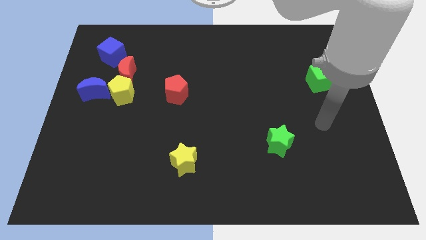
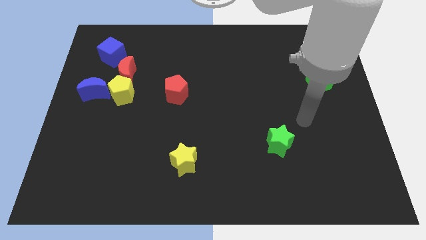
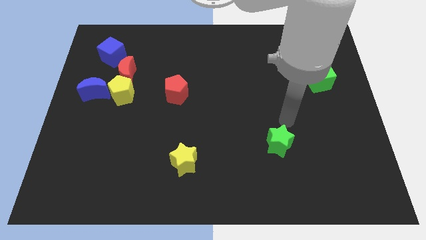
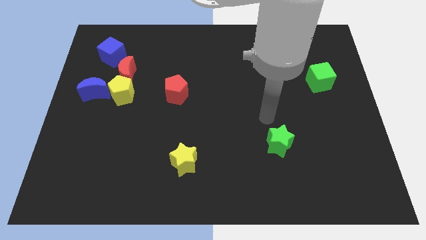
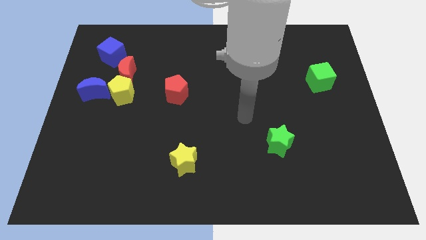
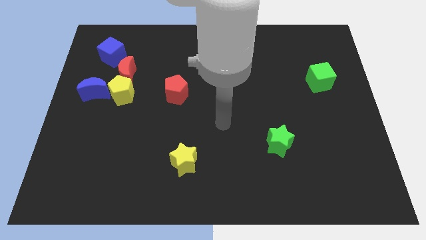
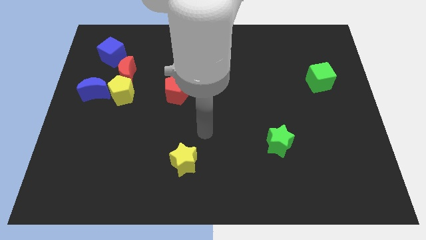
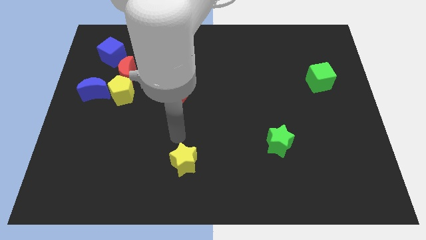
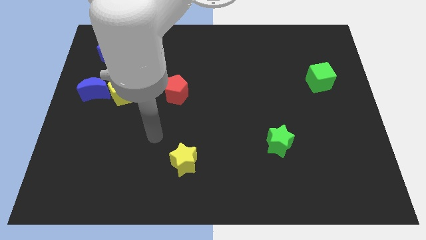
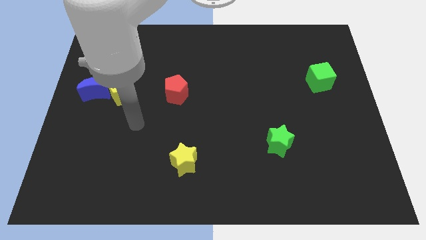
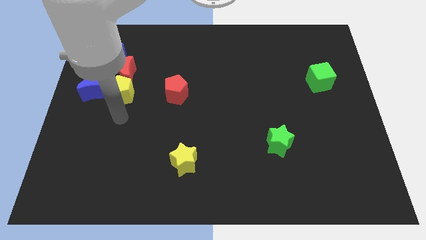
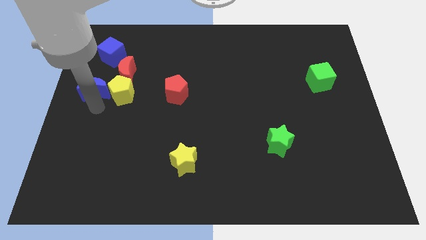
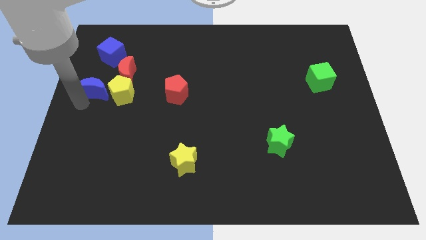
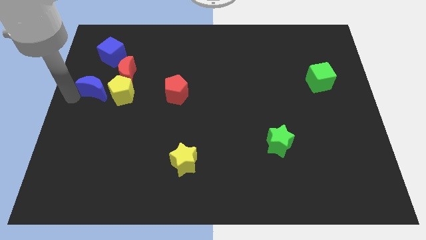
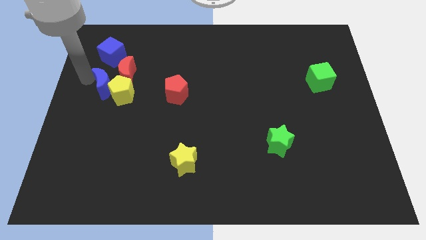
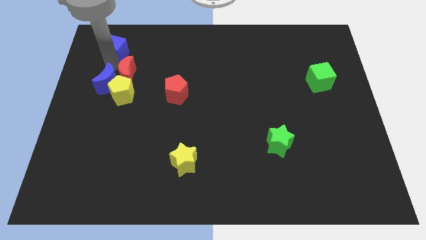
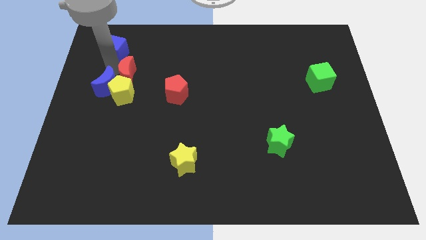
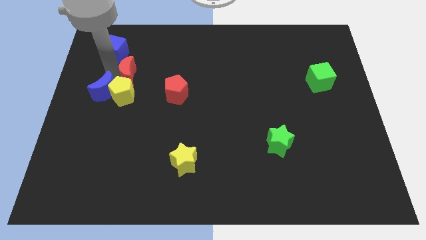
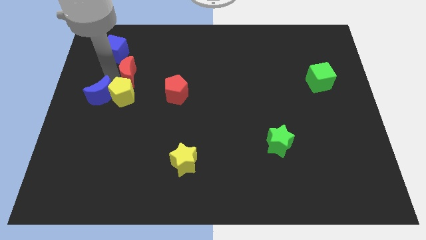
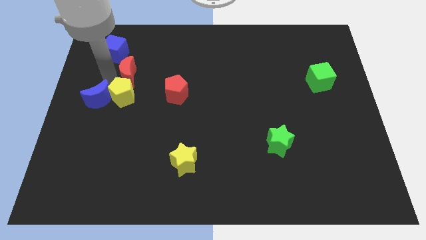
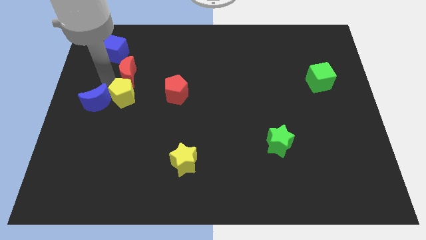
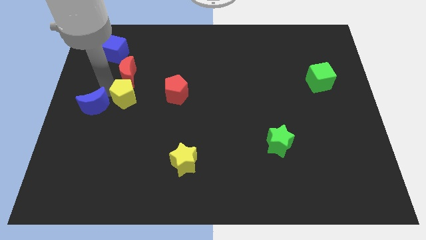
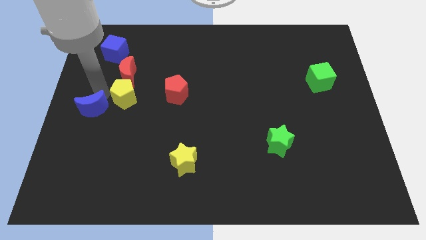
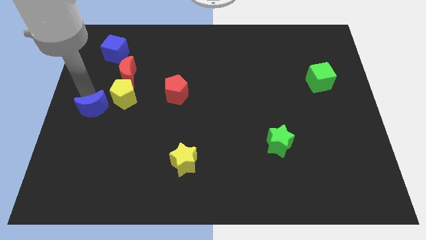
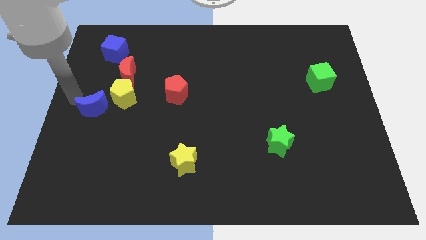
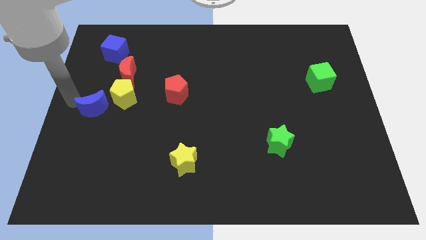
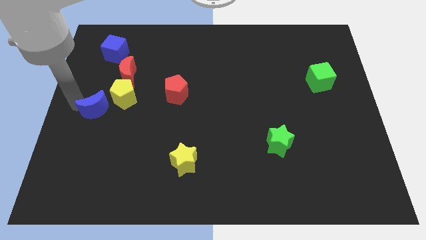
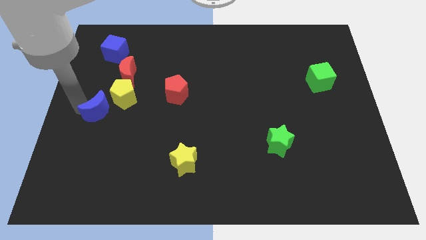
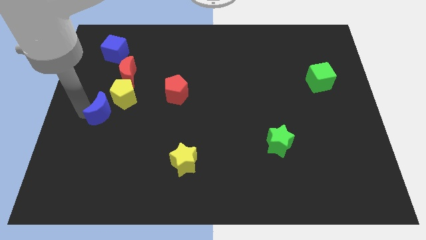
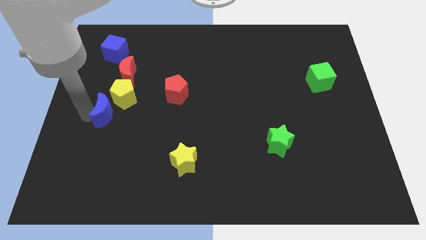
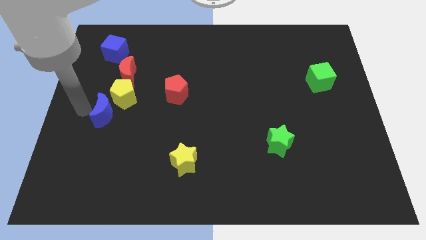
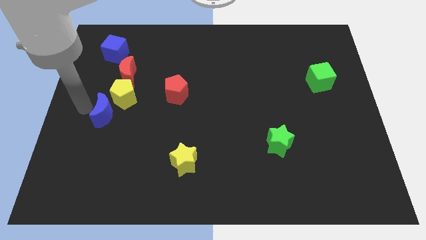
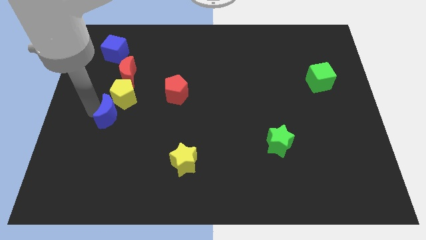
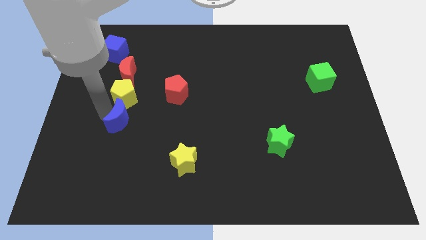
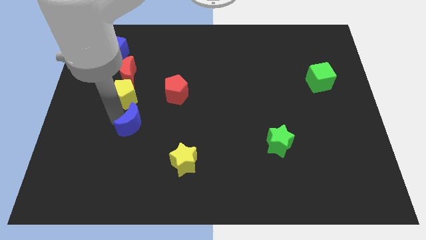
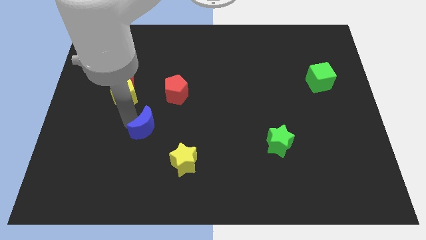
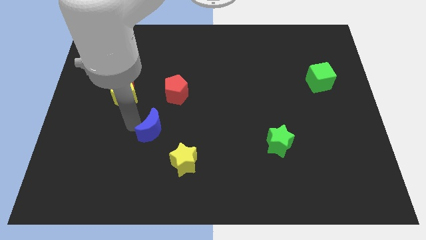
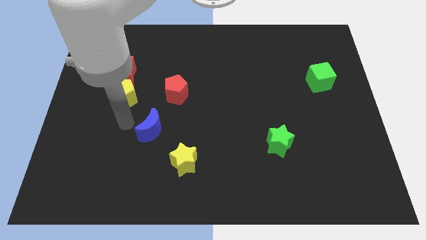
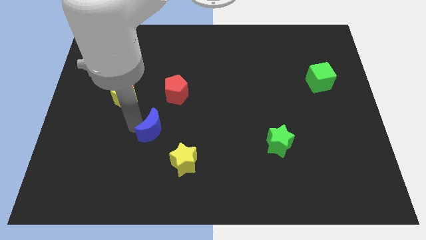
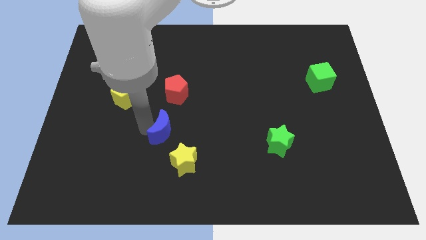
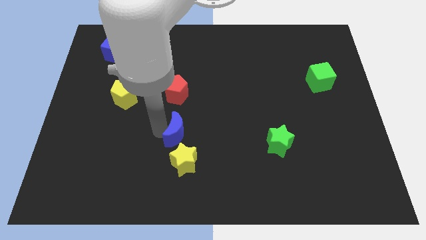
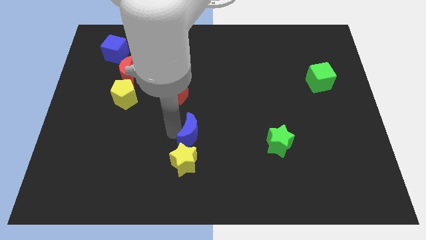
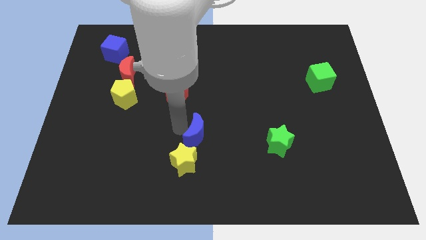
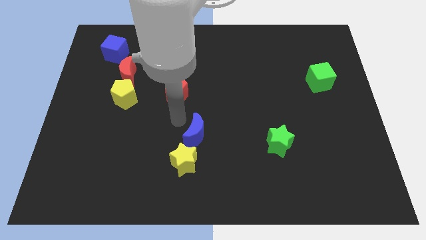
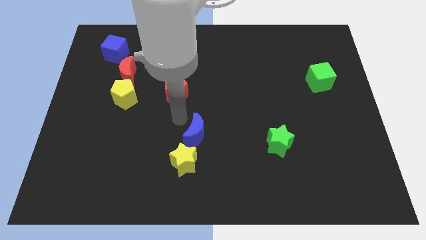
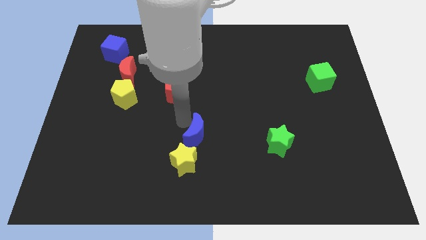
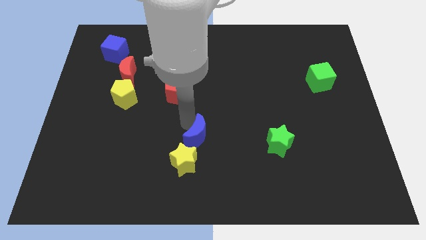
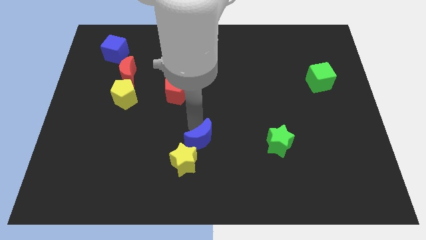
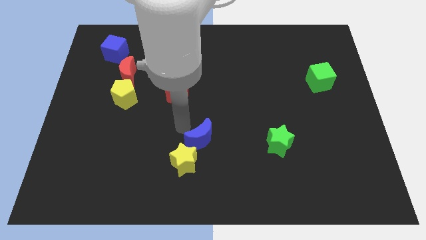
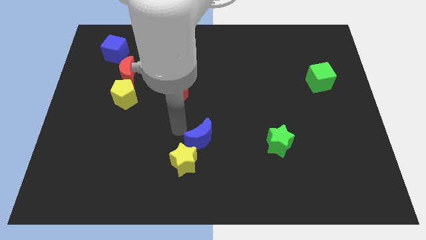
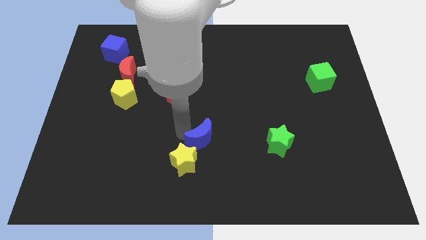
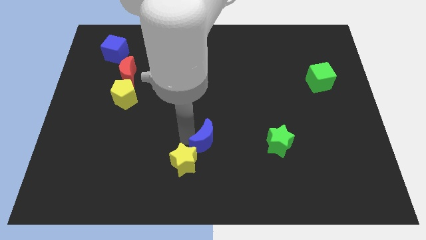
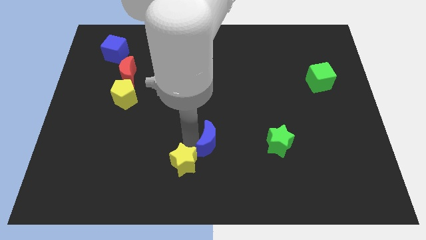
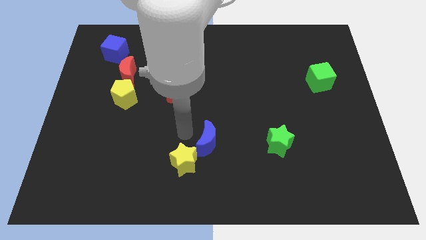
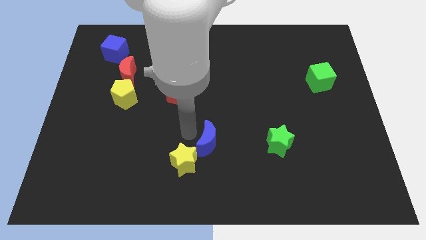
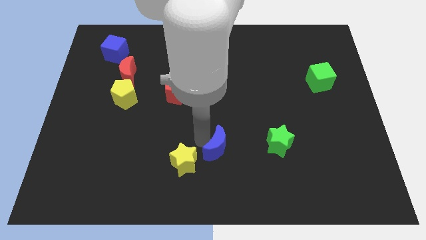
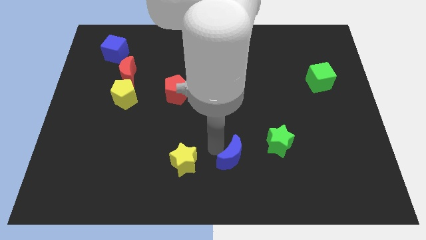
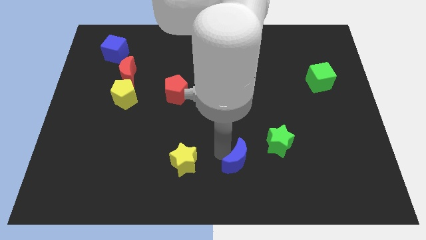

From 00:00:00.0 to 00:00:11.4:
push the blue moon to the bottom left of the green star

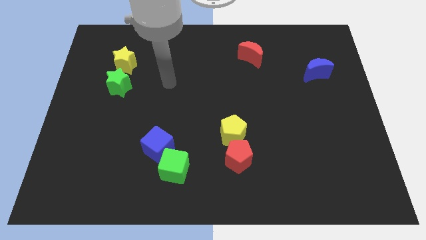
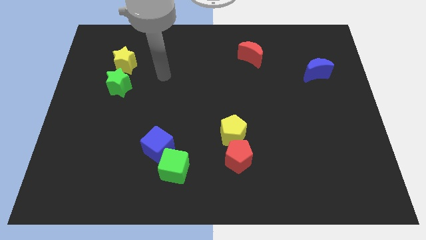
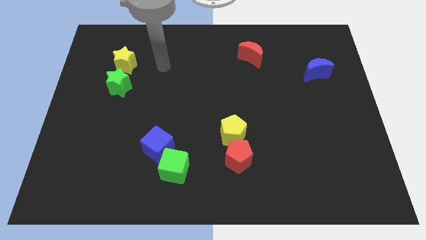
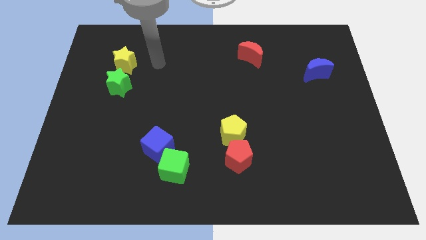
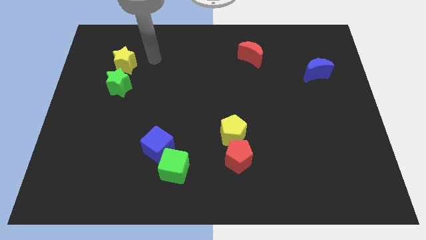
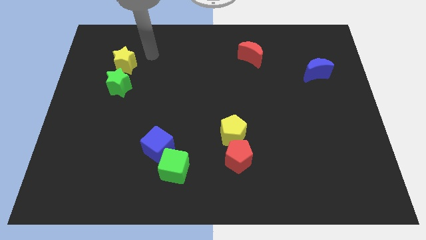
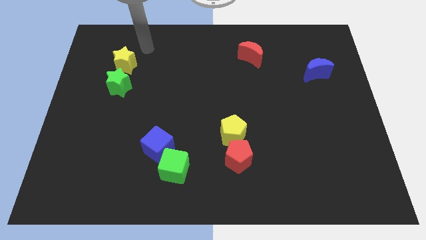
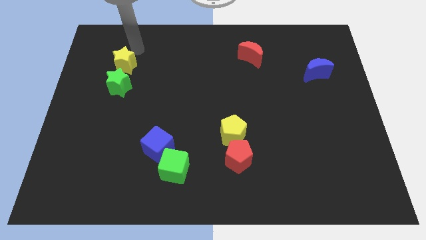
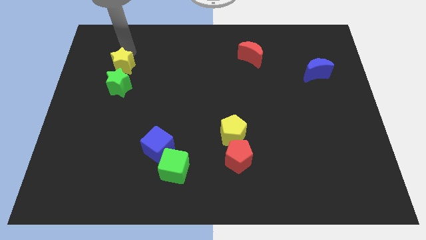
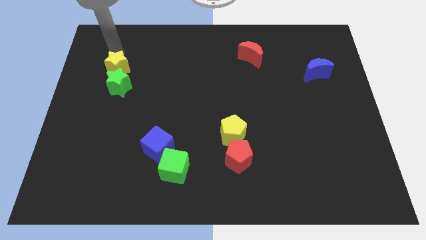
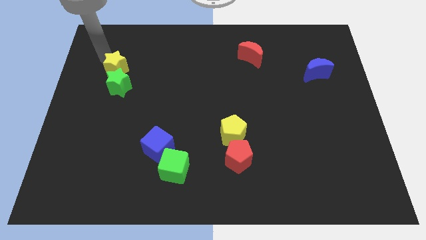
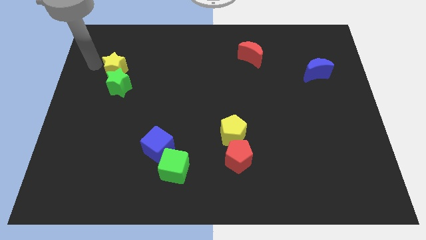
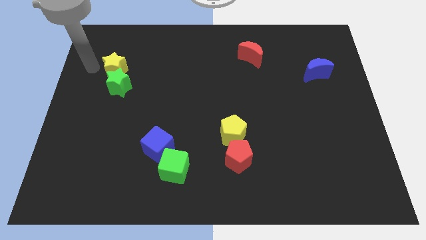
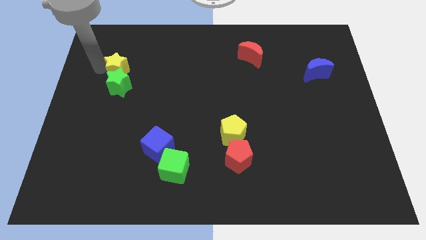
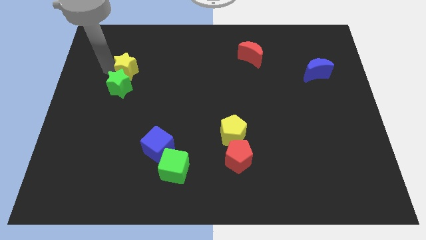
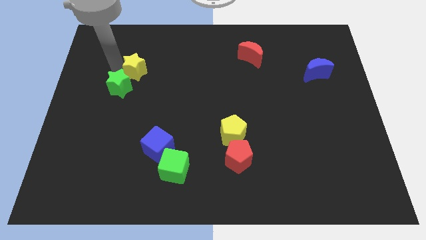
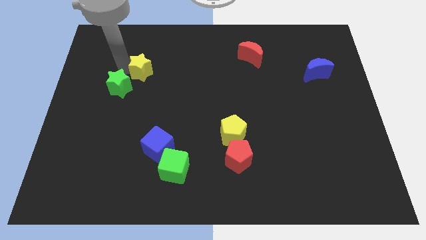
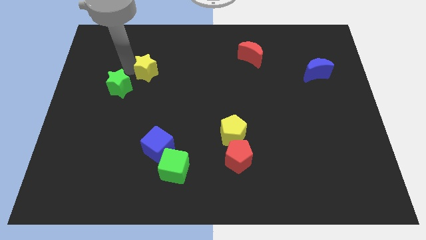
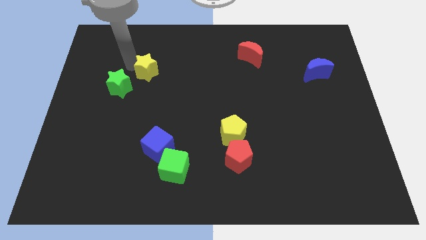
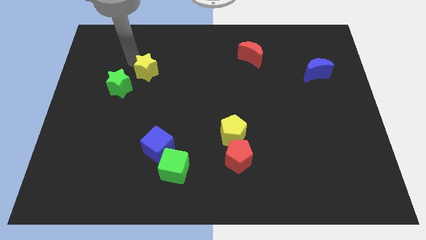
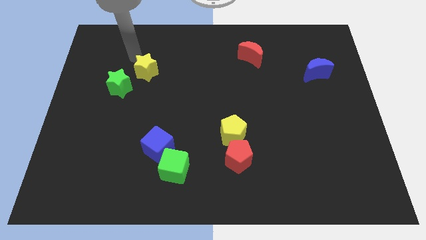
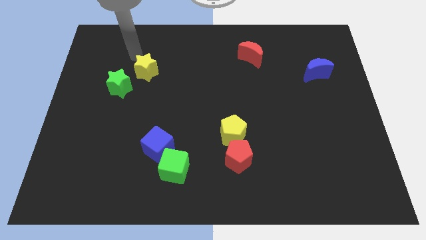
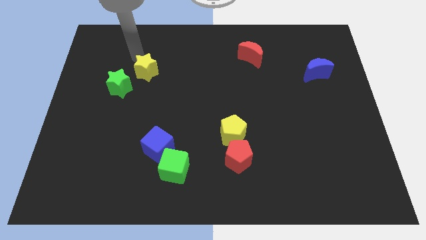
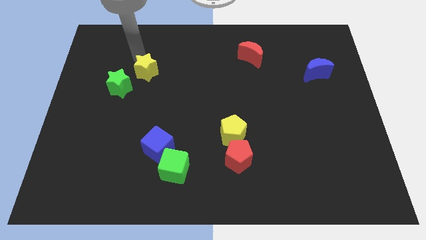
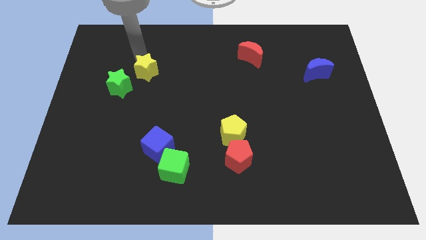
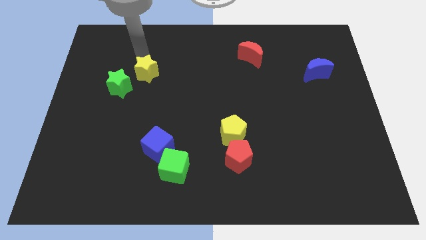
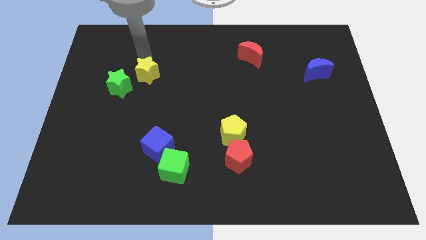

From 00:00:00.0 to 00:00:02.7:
slide the yellow star to the right side of the green star
